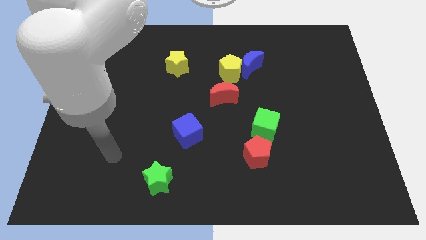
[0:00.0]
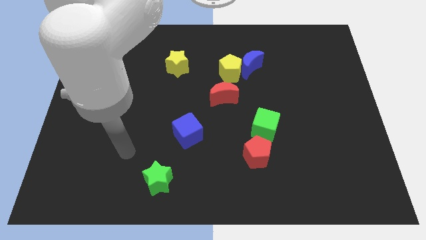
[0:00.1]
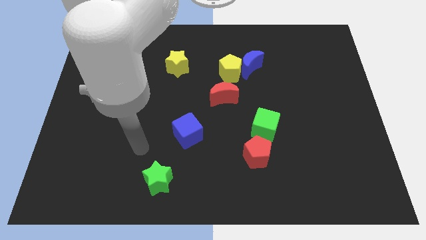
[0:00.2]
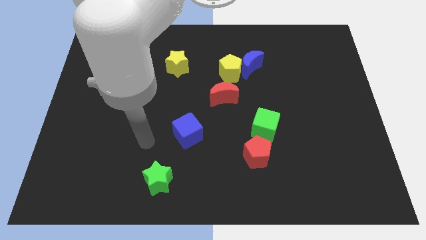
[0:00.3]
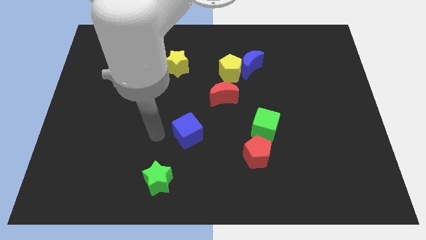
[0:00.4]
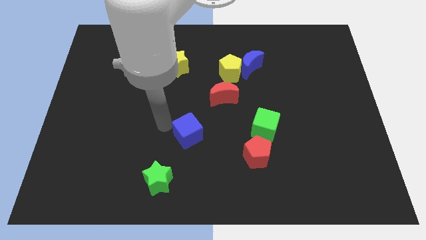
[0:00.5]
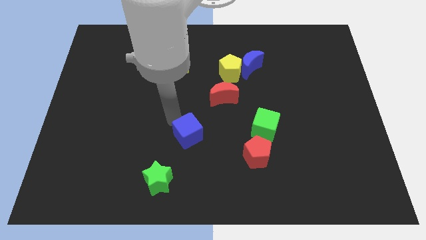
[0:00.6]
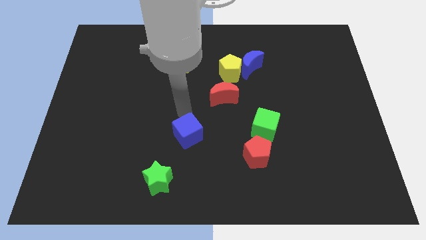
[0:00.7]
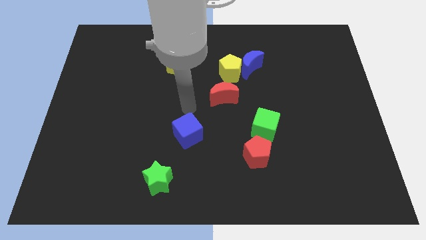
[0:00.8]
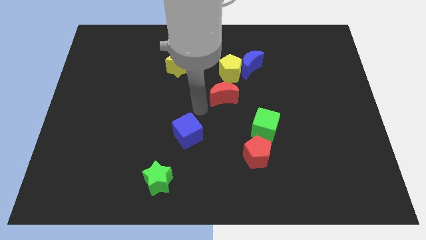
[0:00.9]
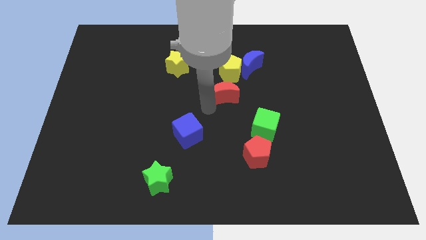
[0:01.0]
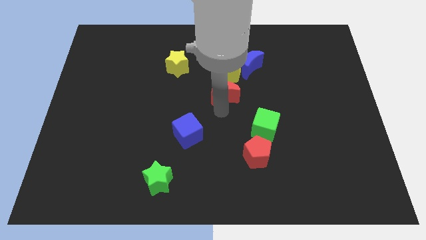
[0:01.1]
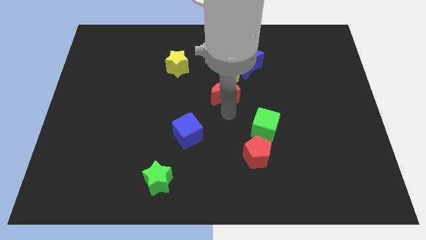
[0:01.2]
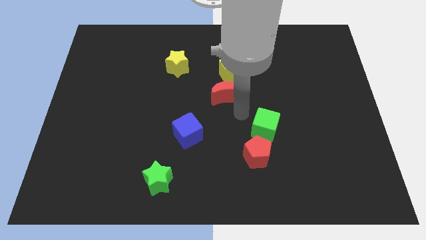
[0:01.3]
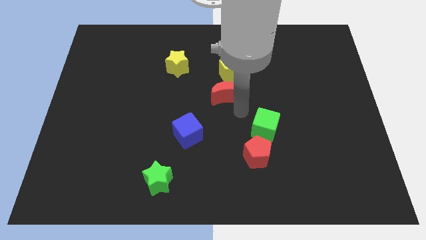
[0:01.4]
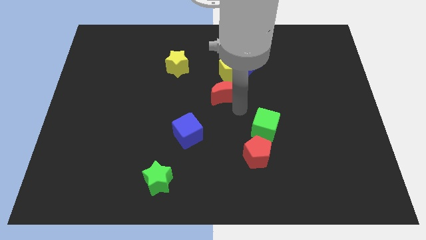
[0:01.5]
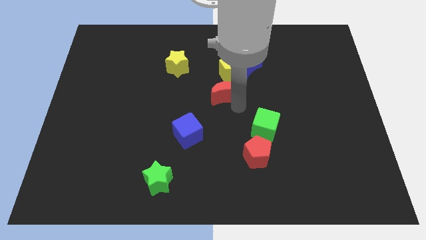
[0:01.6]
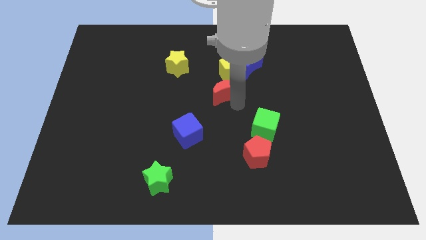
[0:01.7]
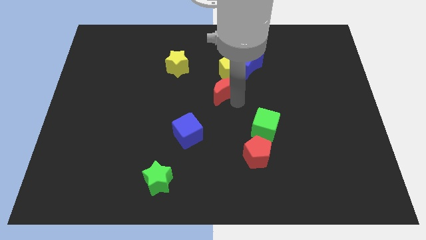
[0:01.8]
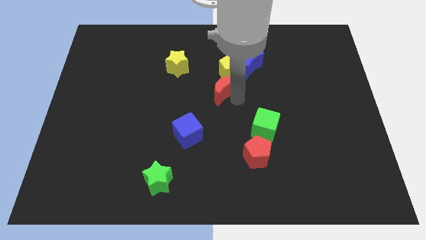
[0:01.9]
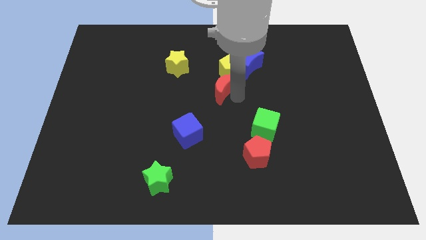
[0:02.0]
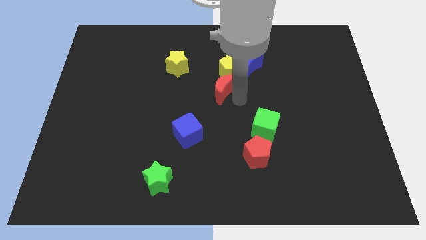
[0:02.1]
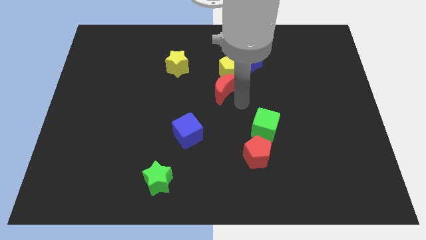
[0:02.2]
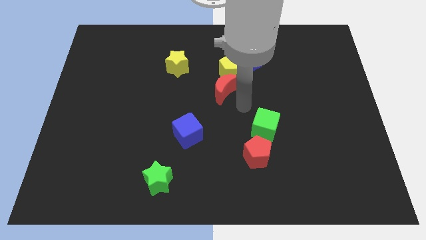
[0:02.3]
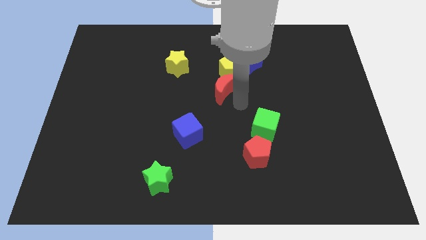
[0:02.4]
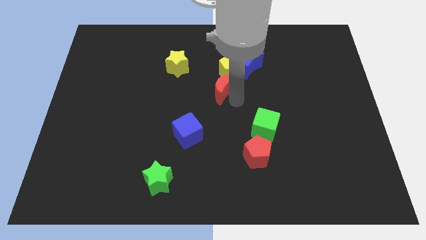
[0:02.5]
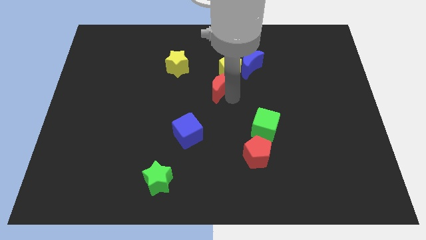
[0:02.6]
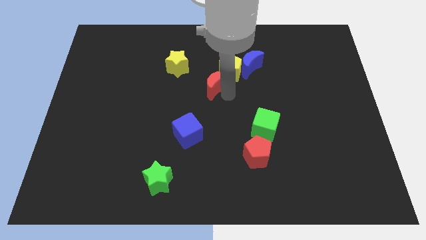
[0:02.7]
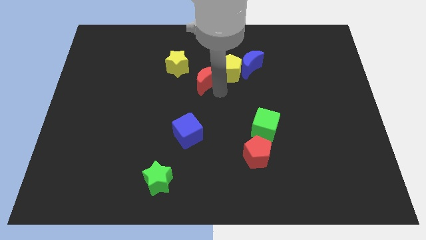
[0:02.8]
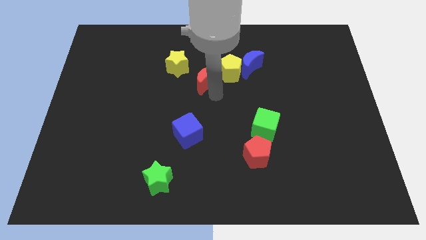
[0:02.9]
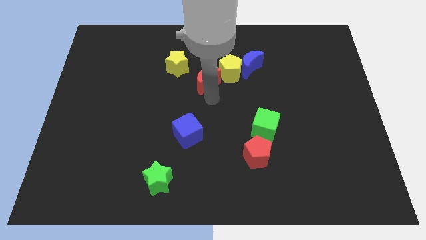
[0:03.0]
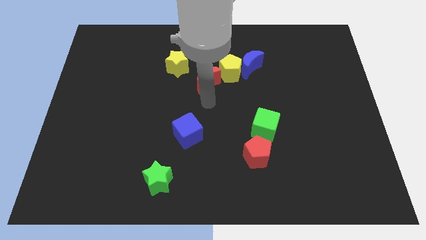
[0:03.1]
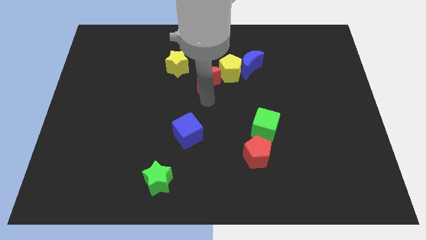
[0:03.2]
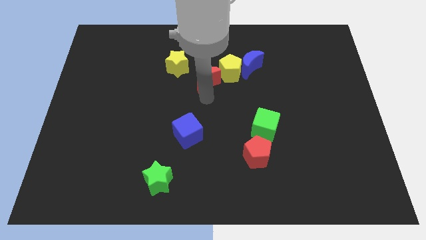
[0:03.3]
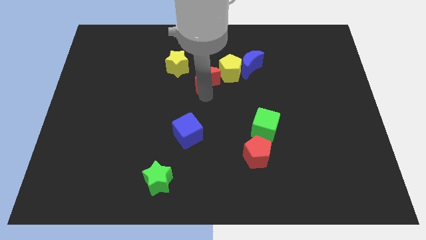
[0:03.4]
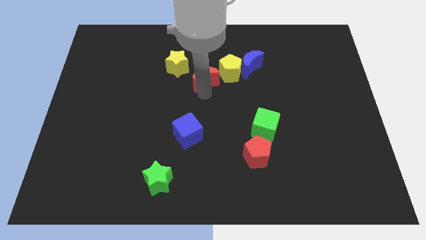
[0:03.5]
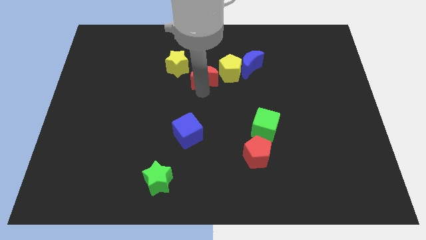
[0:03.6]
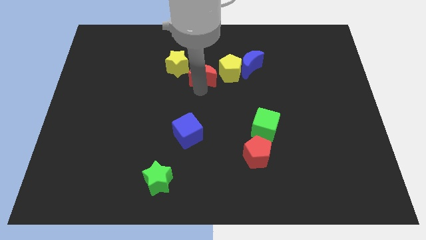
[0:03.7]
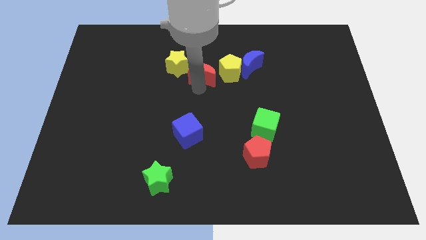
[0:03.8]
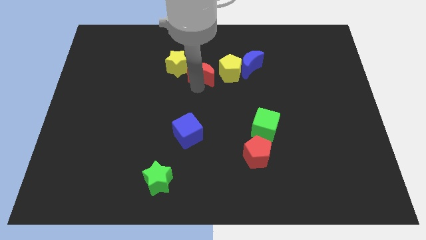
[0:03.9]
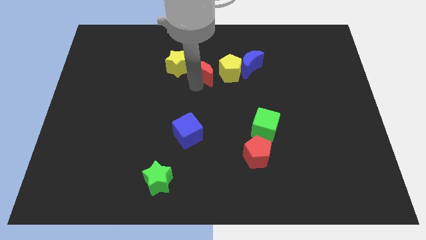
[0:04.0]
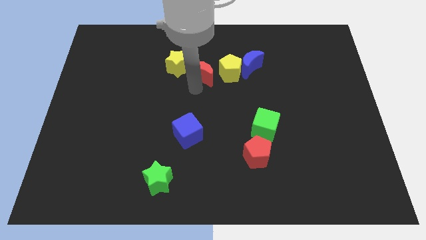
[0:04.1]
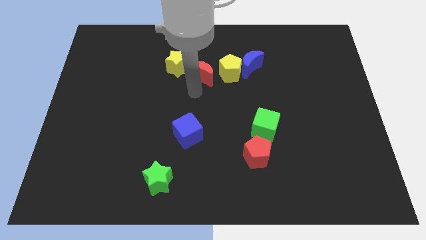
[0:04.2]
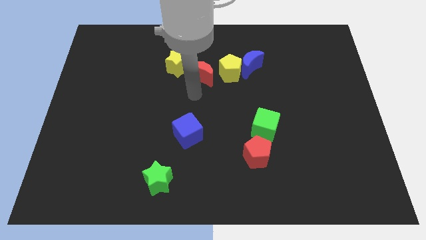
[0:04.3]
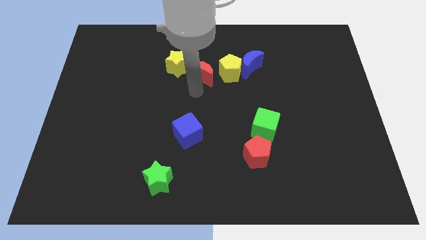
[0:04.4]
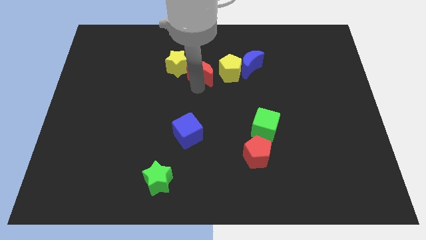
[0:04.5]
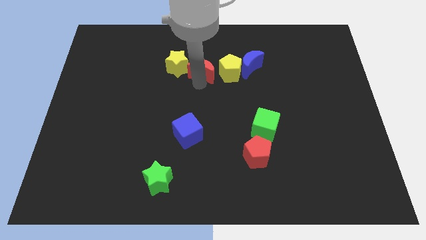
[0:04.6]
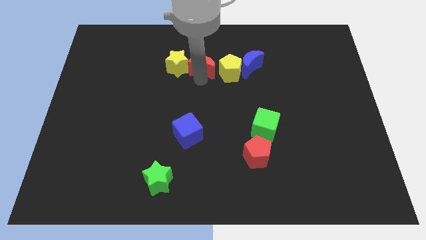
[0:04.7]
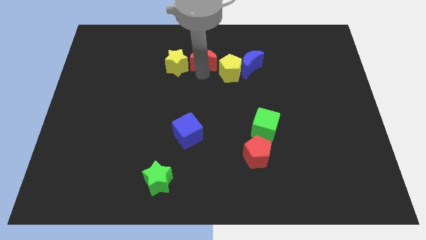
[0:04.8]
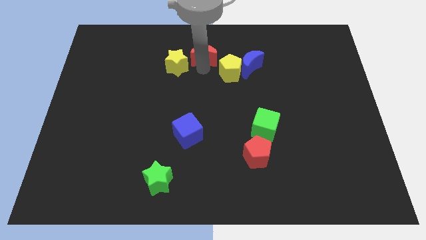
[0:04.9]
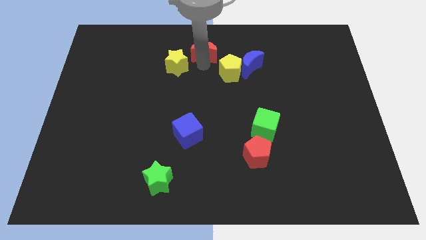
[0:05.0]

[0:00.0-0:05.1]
move the red moon to the towards your base
